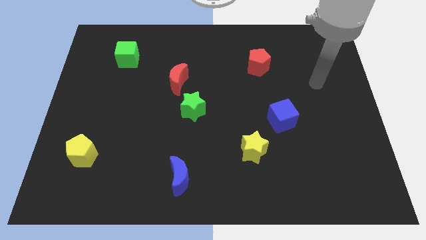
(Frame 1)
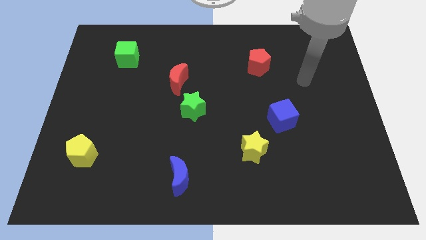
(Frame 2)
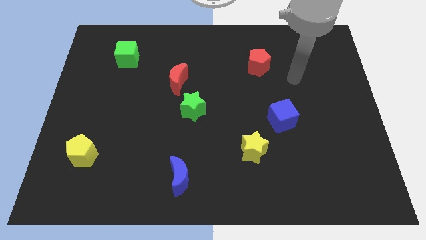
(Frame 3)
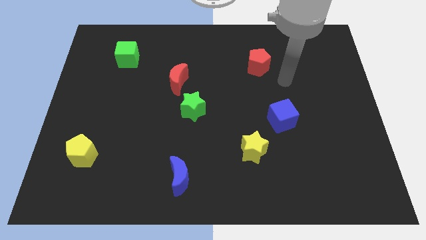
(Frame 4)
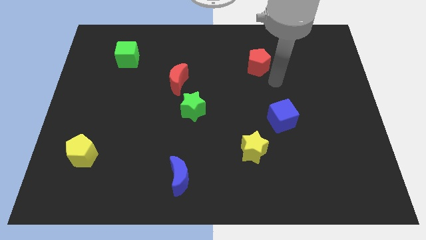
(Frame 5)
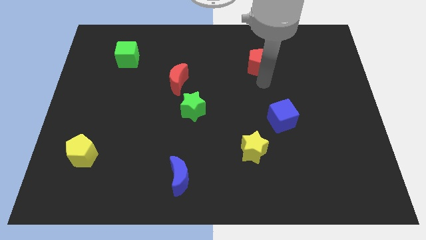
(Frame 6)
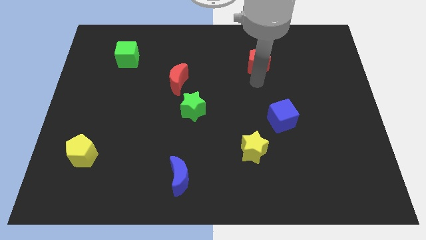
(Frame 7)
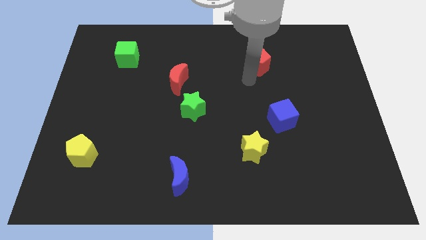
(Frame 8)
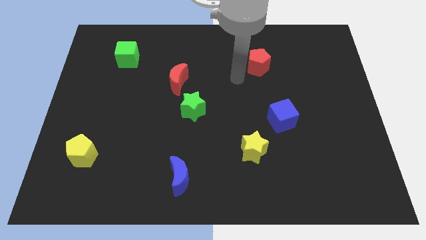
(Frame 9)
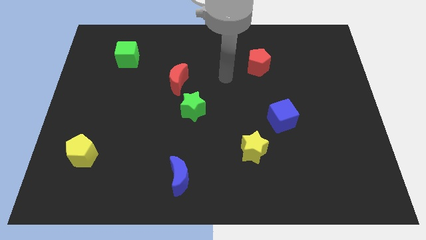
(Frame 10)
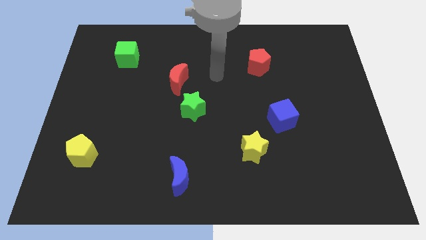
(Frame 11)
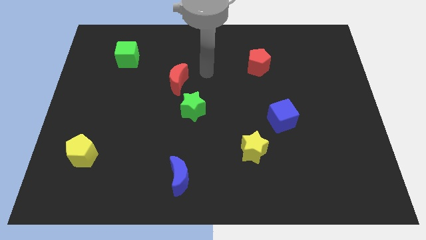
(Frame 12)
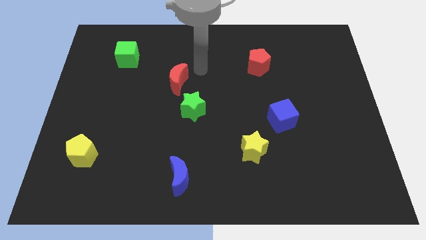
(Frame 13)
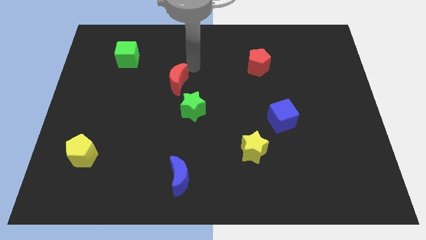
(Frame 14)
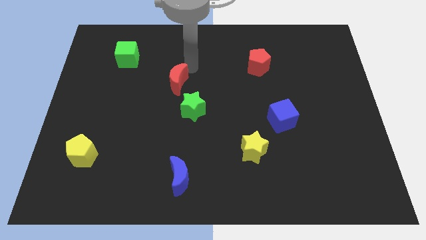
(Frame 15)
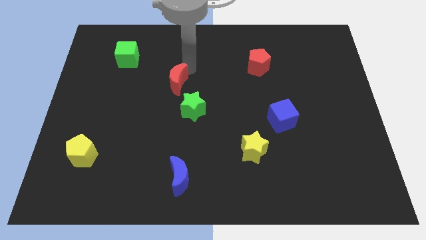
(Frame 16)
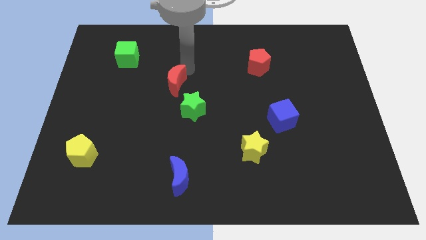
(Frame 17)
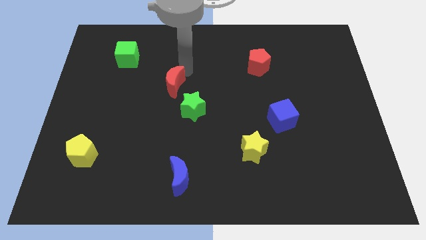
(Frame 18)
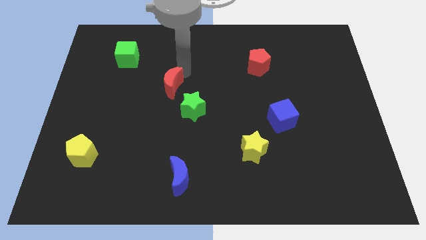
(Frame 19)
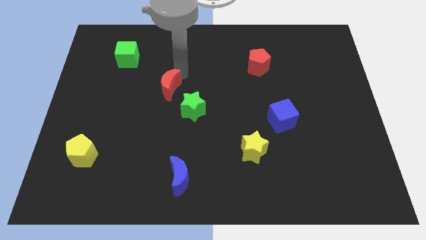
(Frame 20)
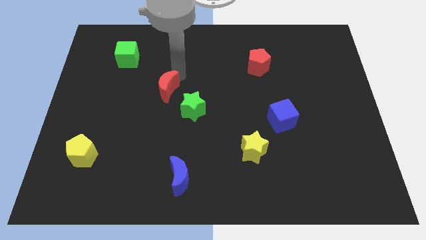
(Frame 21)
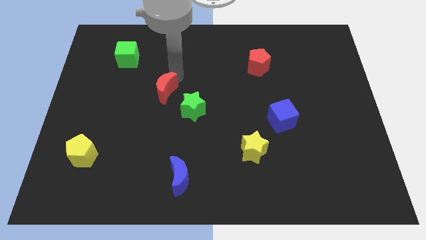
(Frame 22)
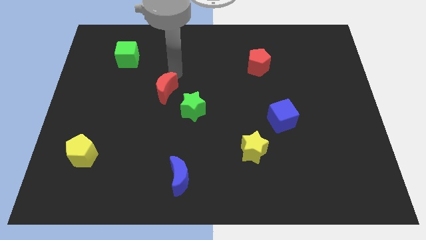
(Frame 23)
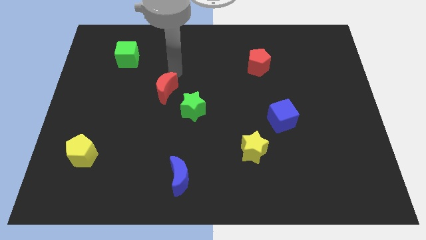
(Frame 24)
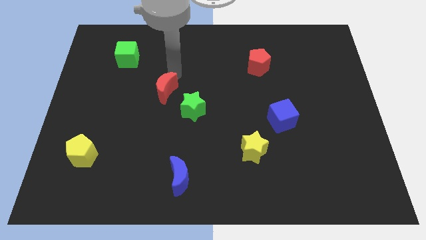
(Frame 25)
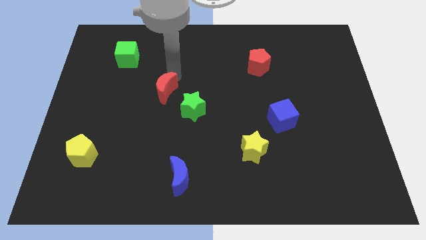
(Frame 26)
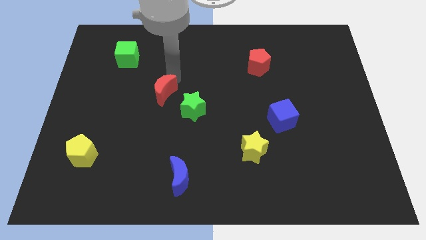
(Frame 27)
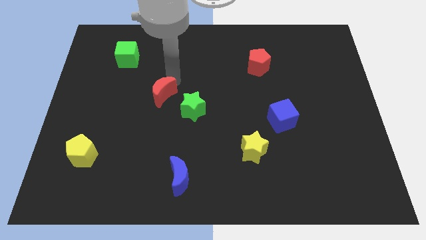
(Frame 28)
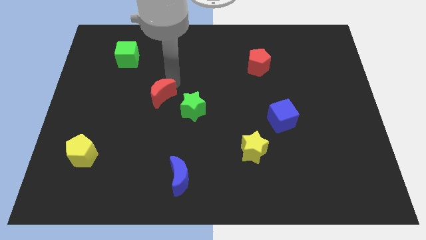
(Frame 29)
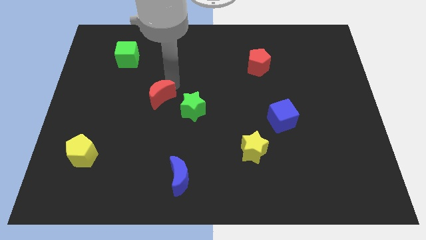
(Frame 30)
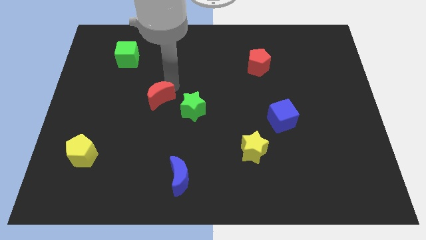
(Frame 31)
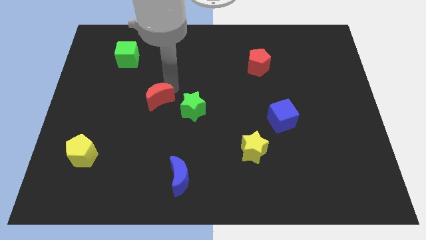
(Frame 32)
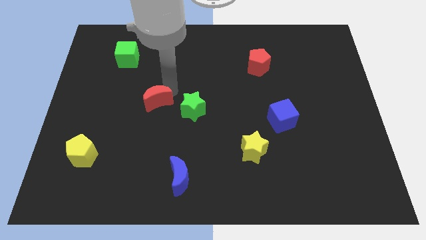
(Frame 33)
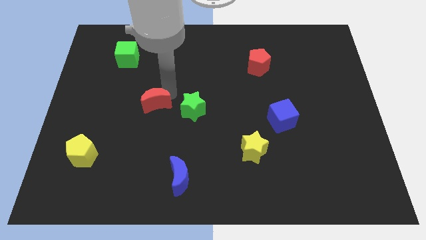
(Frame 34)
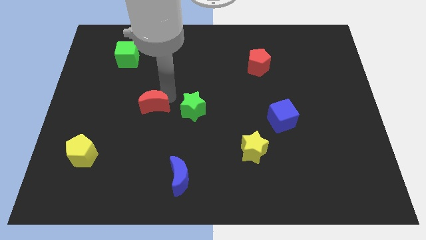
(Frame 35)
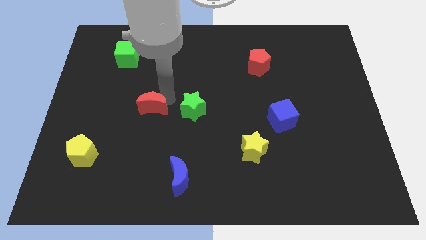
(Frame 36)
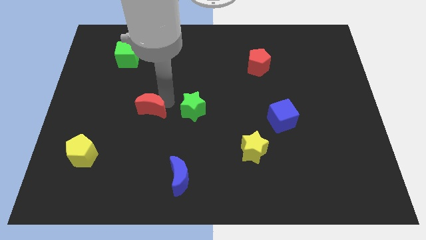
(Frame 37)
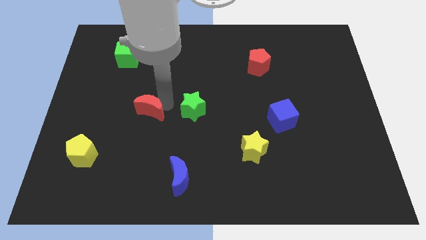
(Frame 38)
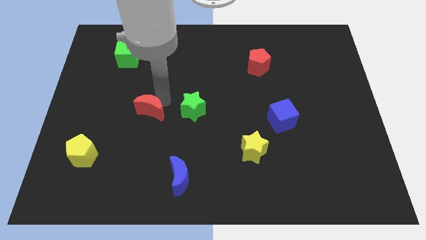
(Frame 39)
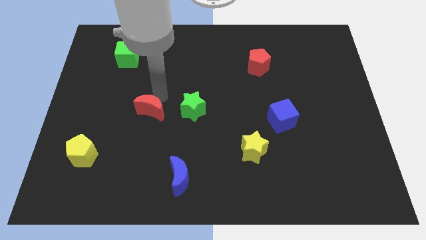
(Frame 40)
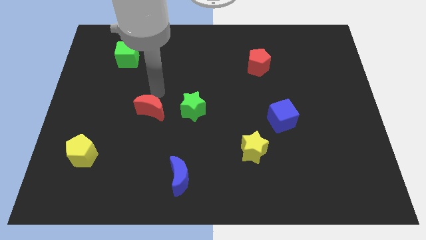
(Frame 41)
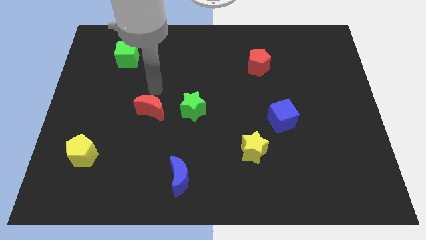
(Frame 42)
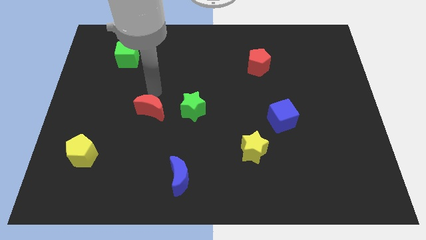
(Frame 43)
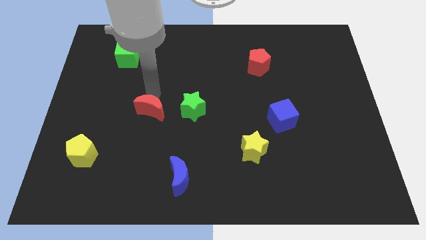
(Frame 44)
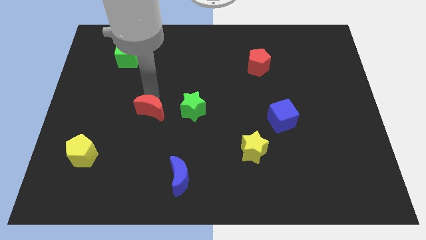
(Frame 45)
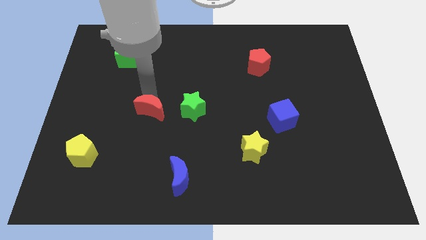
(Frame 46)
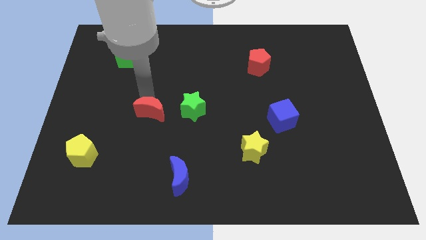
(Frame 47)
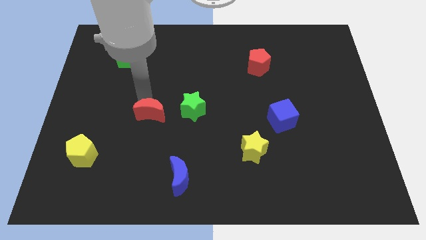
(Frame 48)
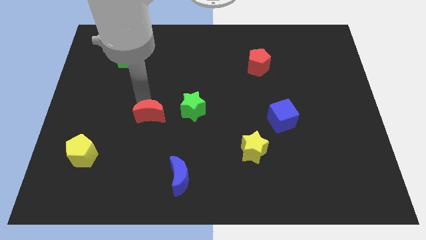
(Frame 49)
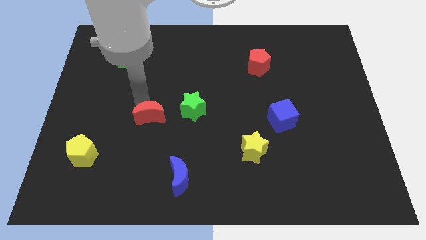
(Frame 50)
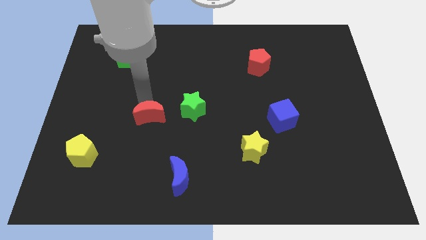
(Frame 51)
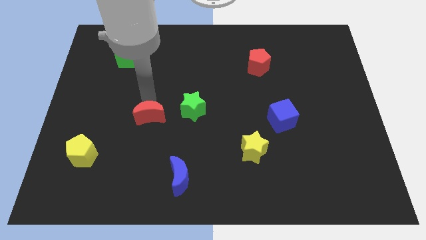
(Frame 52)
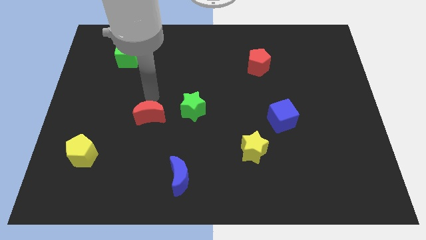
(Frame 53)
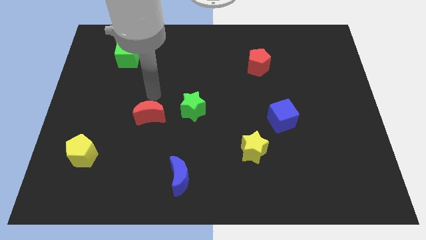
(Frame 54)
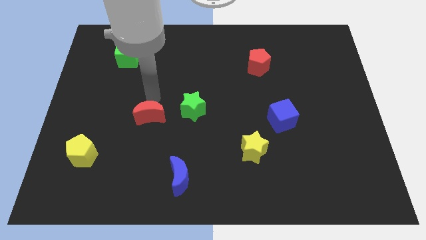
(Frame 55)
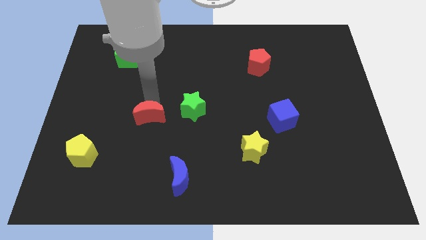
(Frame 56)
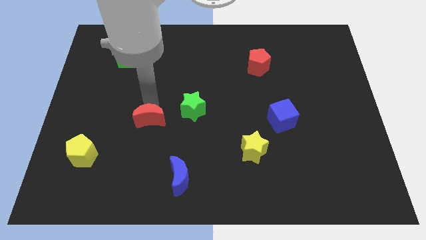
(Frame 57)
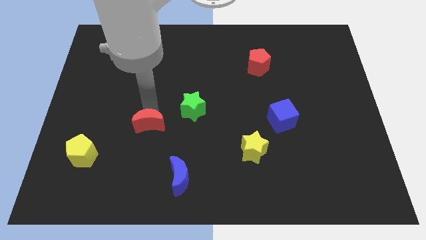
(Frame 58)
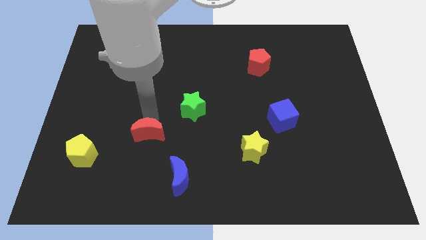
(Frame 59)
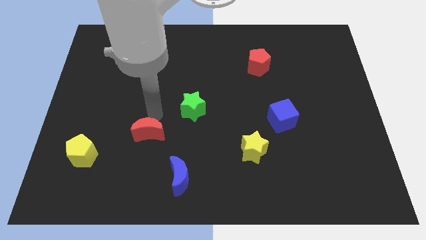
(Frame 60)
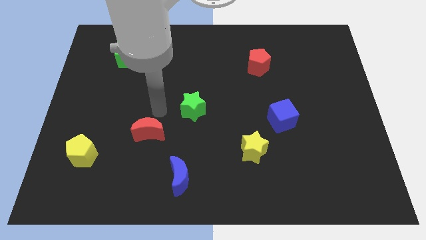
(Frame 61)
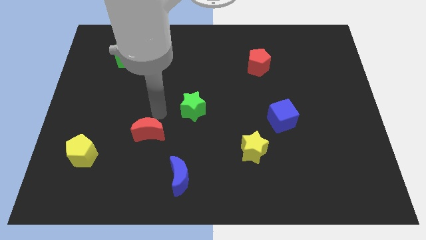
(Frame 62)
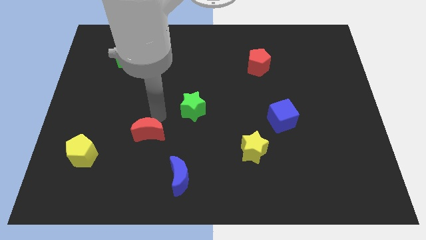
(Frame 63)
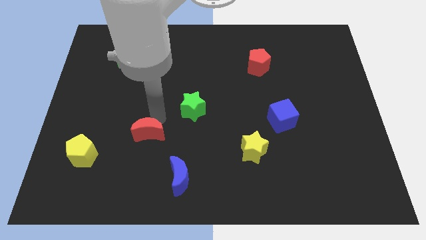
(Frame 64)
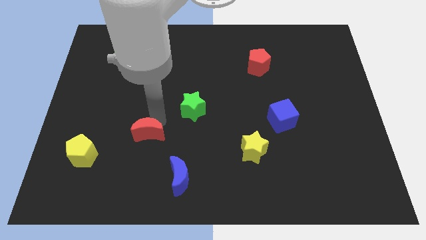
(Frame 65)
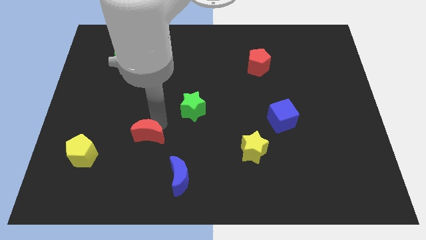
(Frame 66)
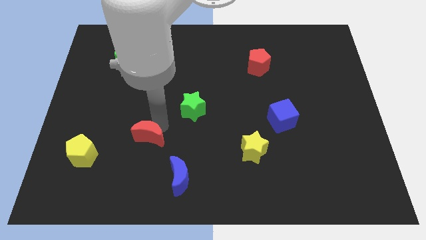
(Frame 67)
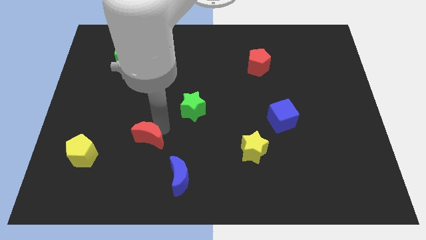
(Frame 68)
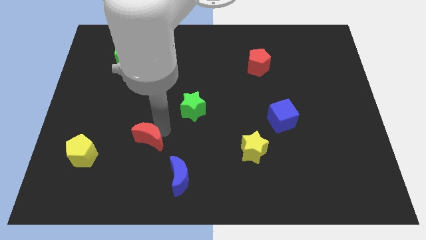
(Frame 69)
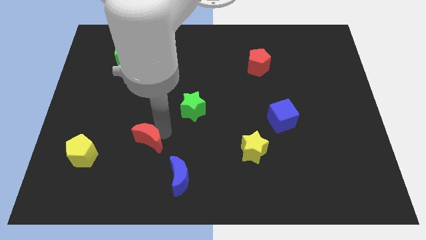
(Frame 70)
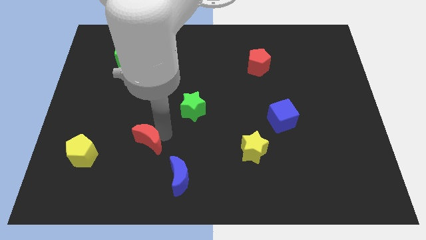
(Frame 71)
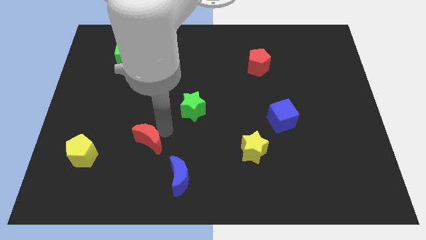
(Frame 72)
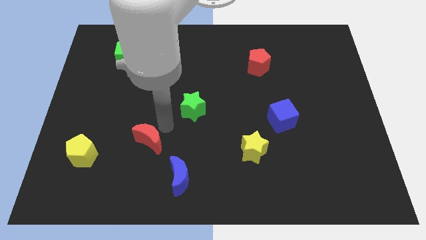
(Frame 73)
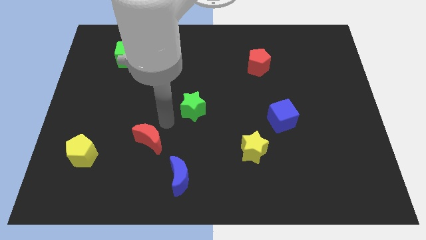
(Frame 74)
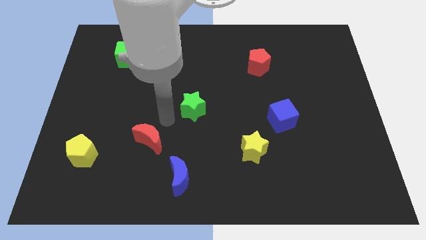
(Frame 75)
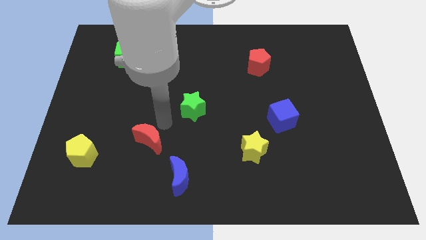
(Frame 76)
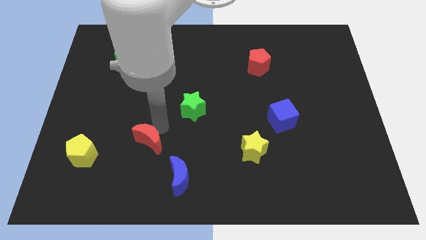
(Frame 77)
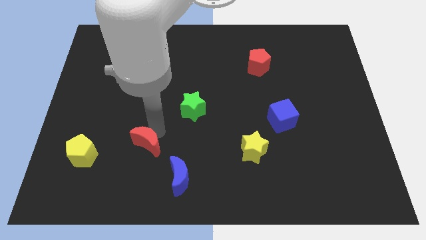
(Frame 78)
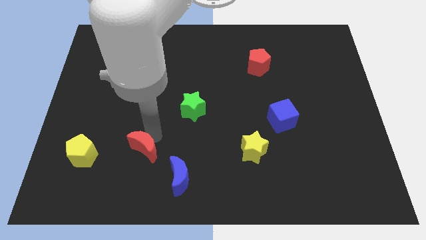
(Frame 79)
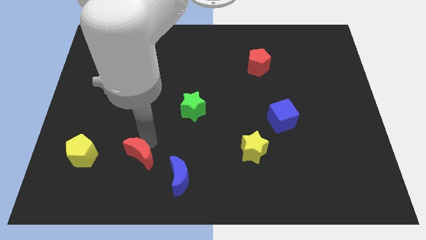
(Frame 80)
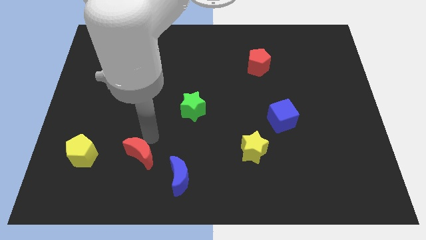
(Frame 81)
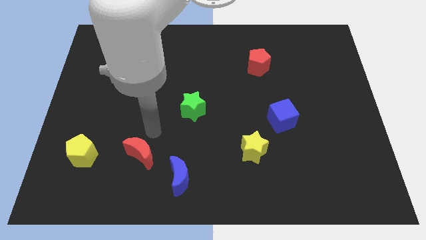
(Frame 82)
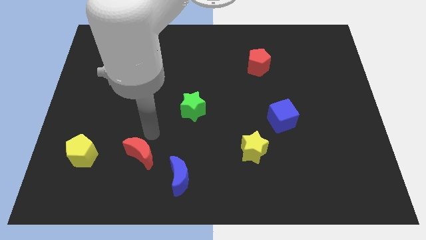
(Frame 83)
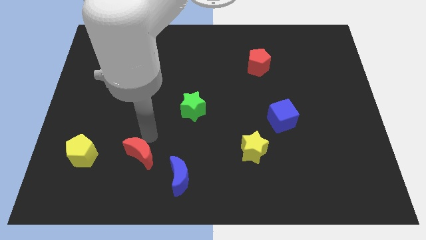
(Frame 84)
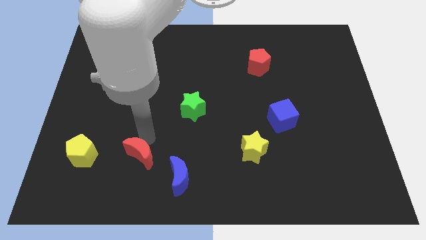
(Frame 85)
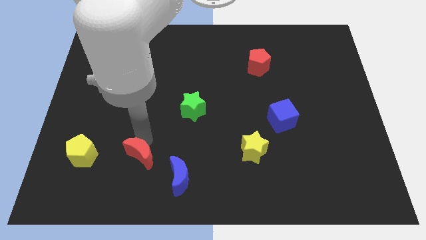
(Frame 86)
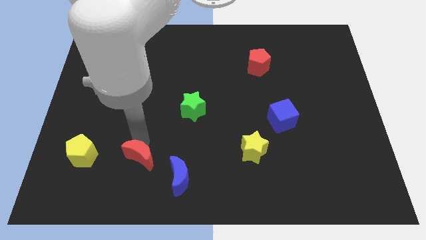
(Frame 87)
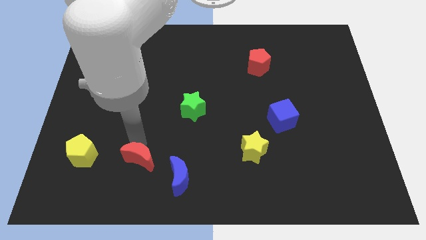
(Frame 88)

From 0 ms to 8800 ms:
push the red moon to the left of the blue moon
